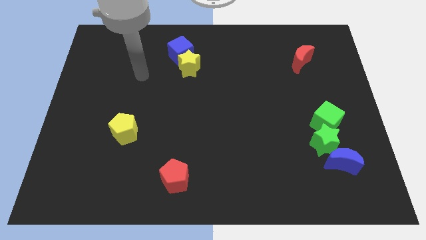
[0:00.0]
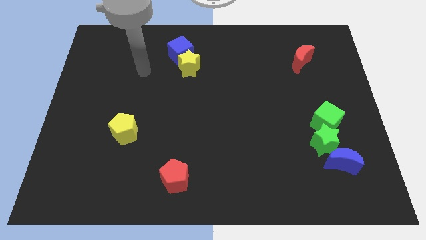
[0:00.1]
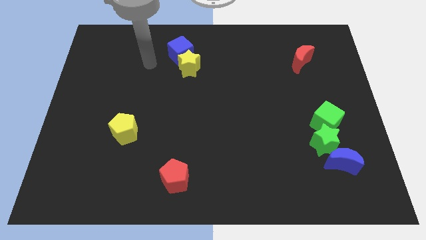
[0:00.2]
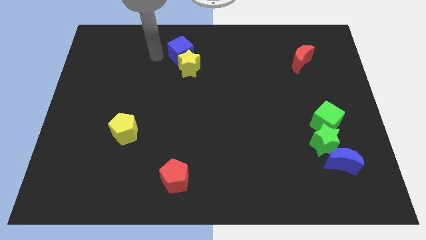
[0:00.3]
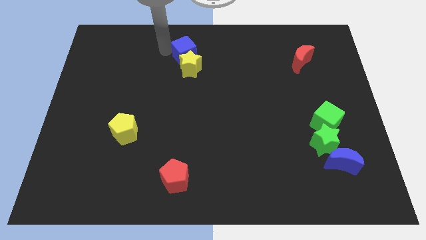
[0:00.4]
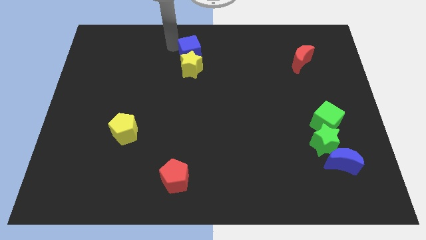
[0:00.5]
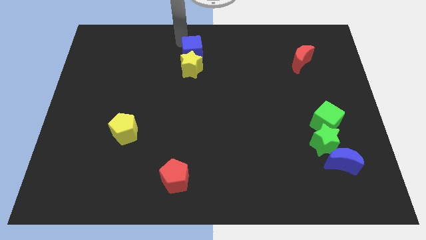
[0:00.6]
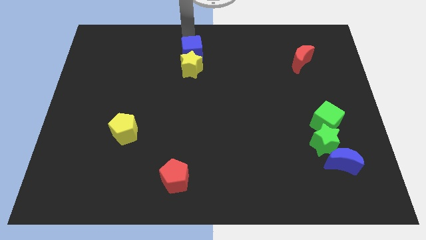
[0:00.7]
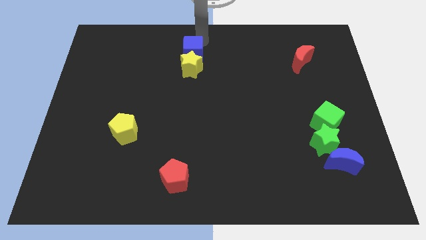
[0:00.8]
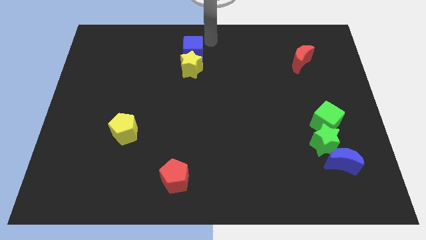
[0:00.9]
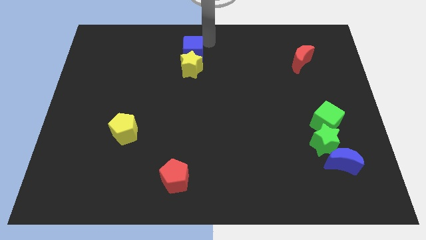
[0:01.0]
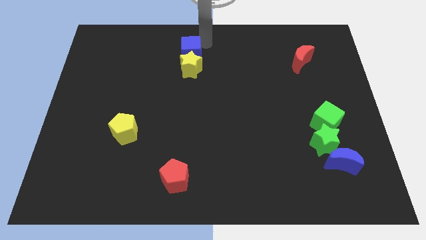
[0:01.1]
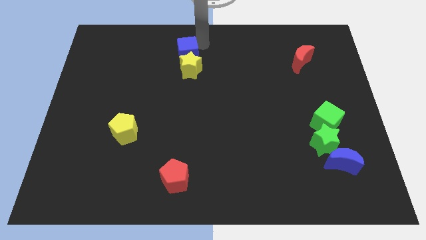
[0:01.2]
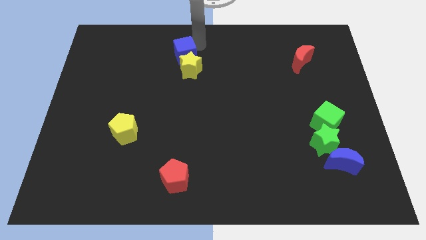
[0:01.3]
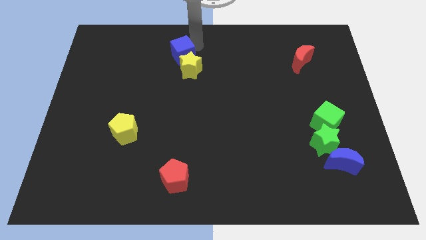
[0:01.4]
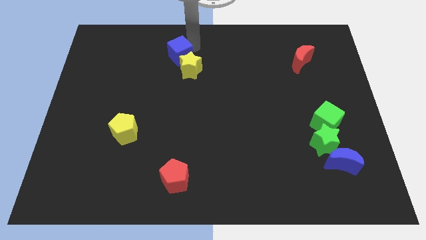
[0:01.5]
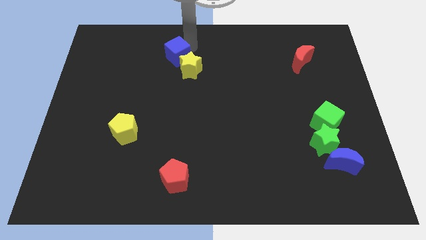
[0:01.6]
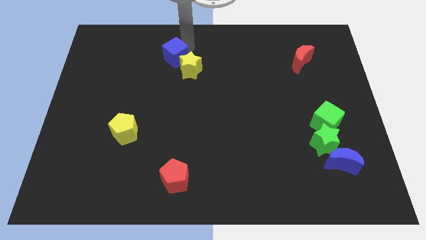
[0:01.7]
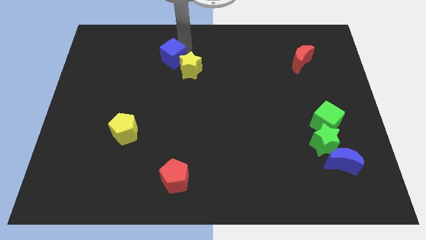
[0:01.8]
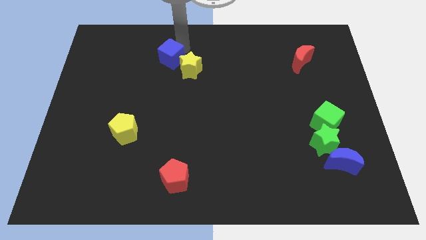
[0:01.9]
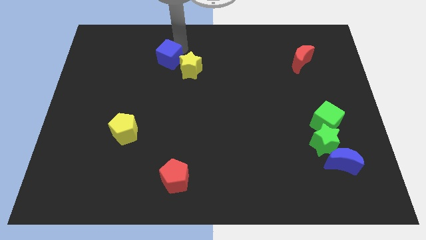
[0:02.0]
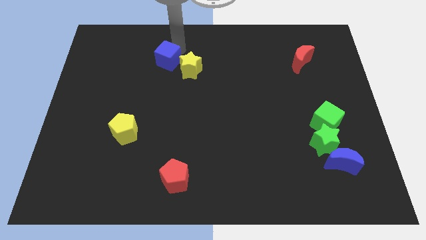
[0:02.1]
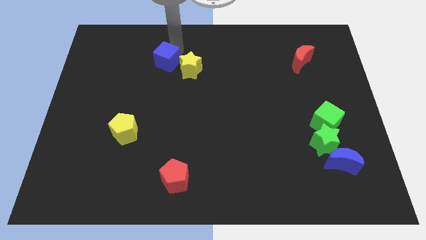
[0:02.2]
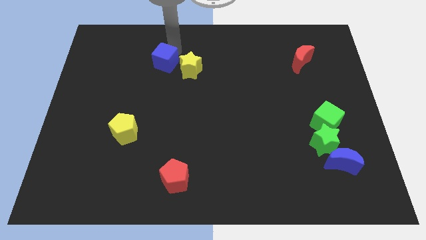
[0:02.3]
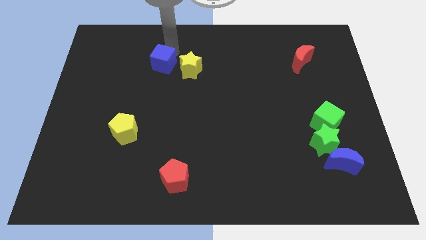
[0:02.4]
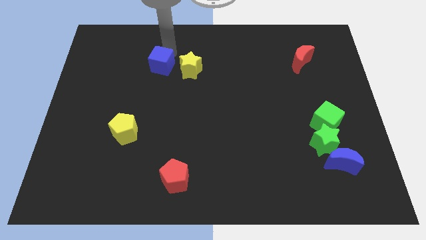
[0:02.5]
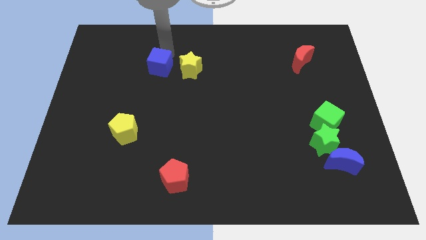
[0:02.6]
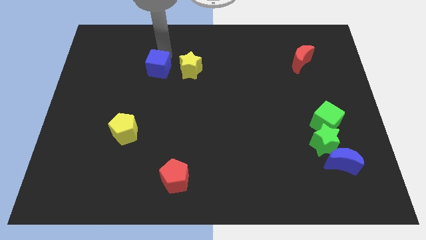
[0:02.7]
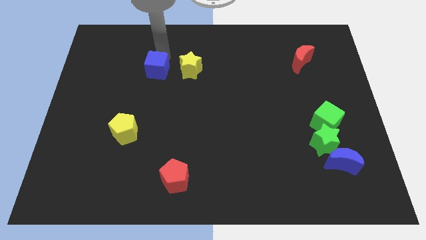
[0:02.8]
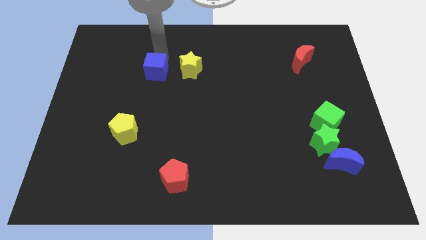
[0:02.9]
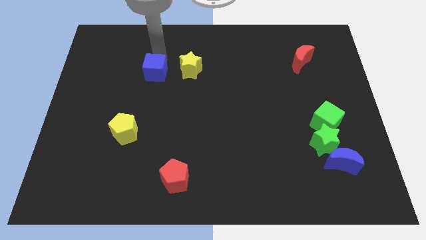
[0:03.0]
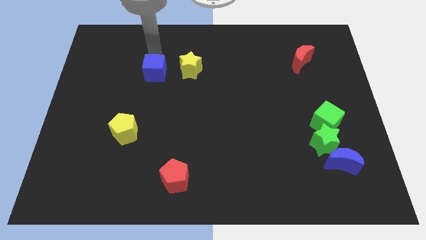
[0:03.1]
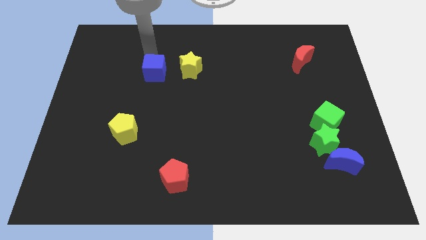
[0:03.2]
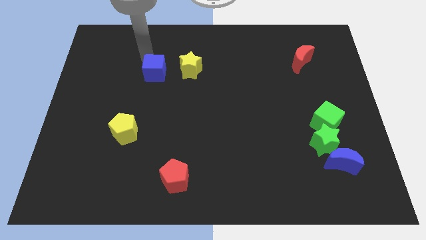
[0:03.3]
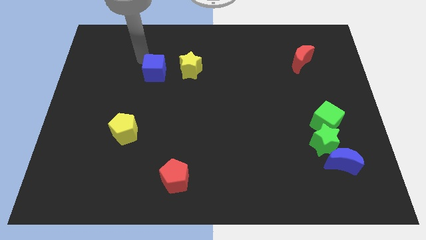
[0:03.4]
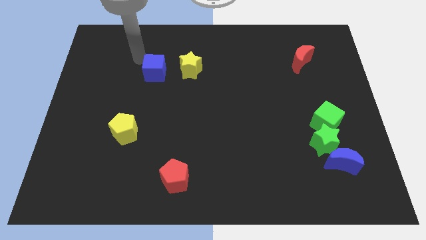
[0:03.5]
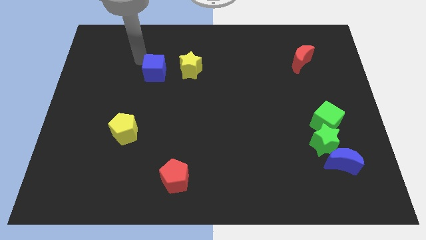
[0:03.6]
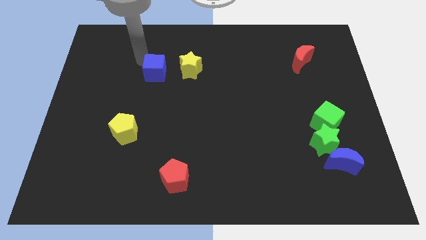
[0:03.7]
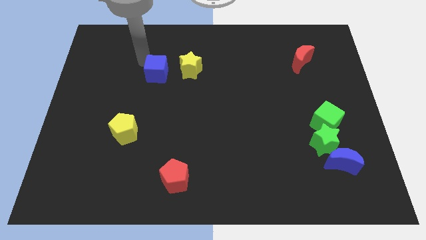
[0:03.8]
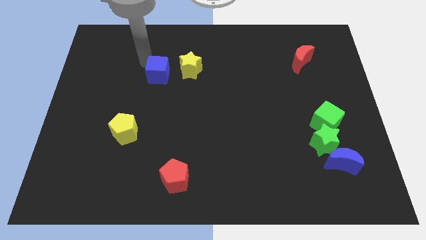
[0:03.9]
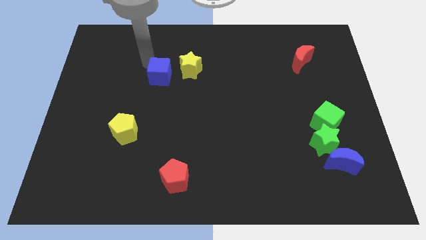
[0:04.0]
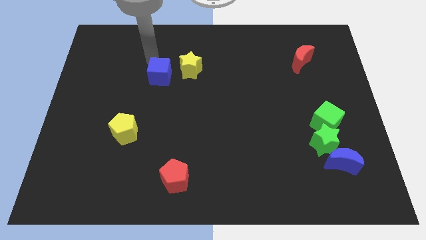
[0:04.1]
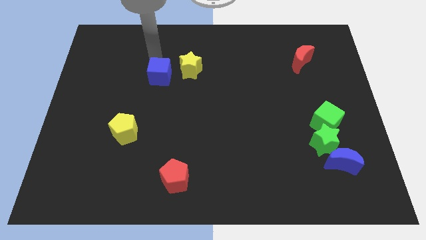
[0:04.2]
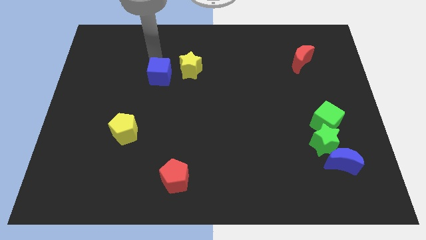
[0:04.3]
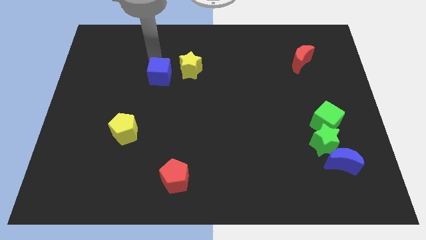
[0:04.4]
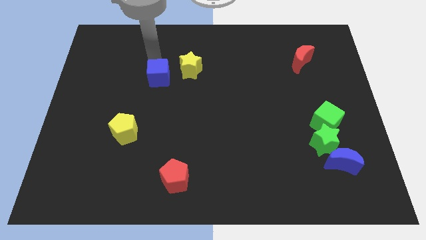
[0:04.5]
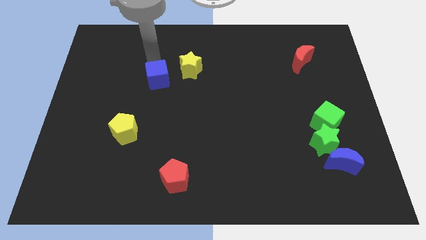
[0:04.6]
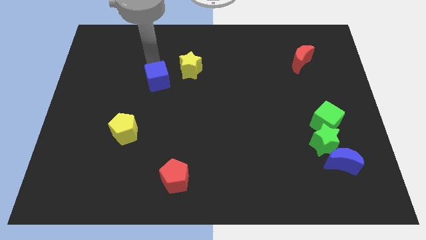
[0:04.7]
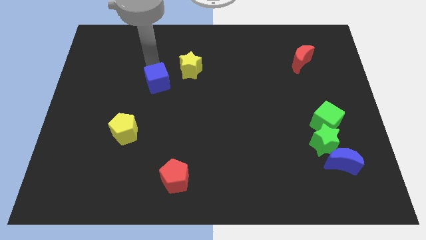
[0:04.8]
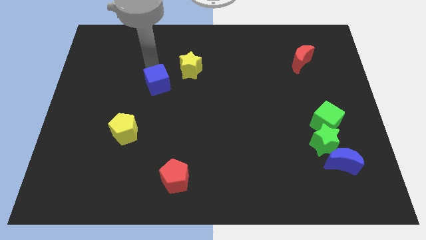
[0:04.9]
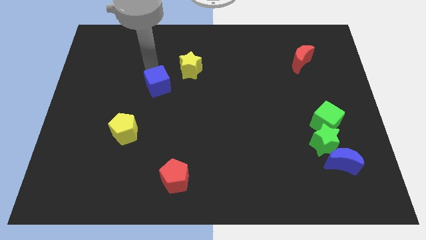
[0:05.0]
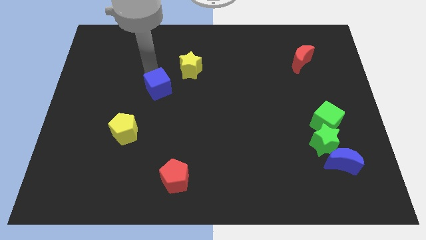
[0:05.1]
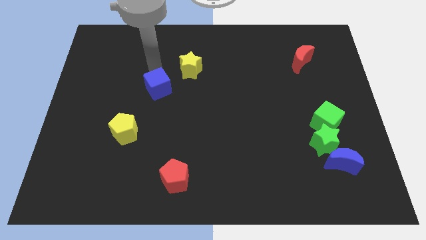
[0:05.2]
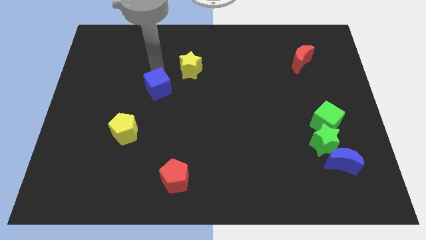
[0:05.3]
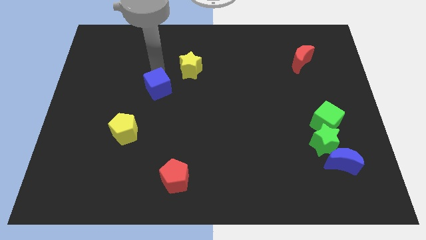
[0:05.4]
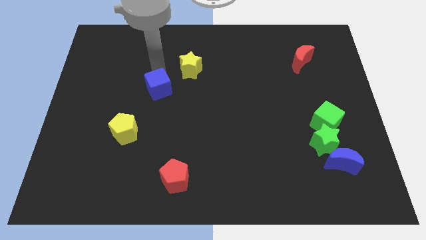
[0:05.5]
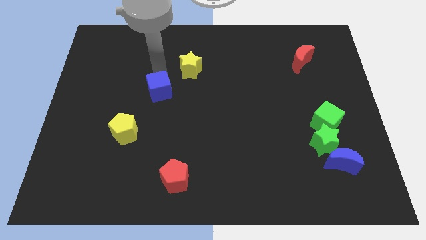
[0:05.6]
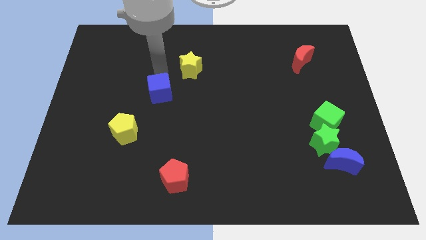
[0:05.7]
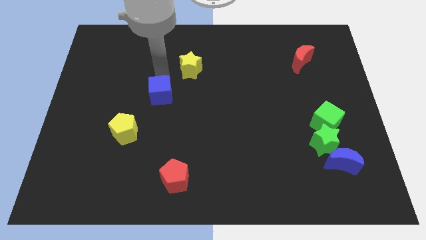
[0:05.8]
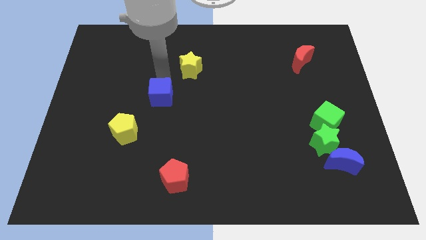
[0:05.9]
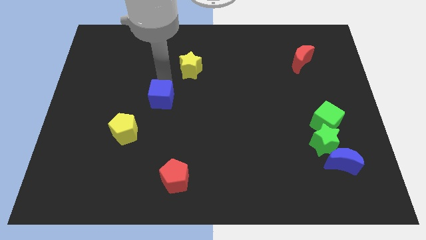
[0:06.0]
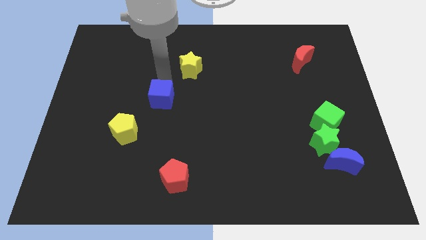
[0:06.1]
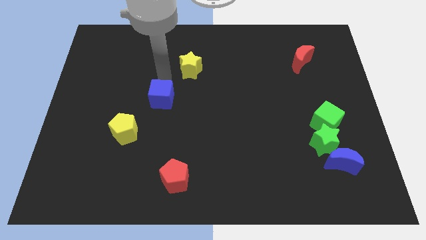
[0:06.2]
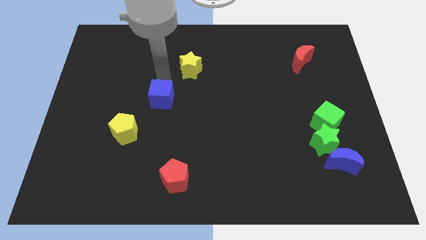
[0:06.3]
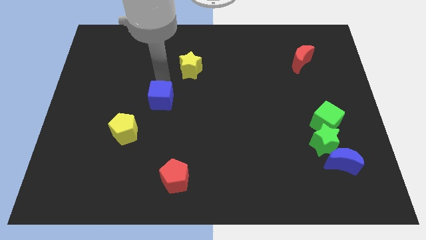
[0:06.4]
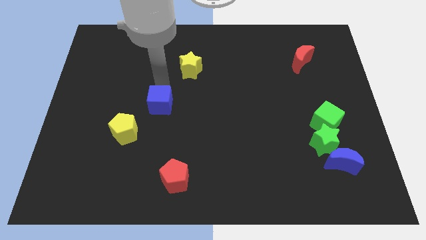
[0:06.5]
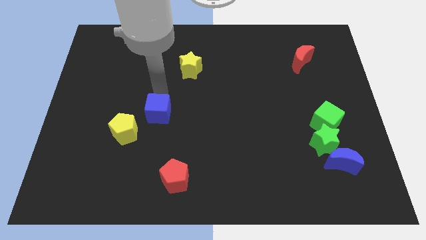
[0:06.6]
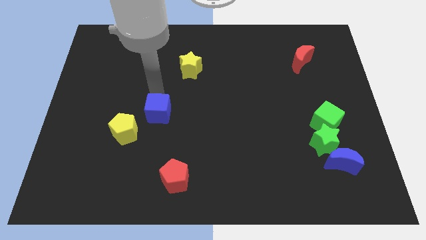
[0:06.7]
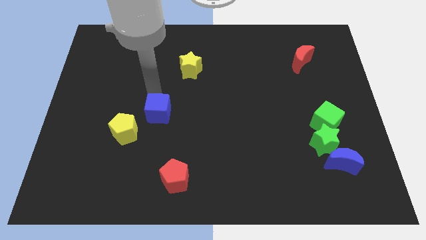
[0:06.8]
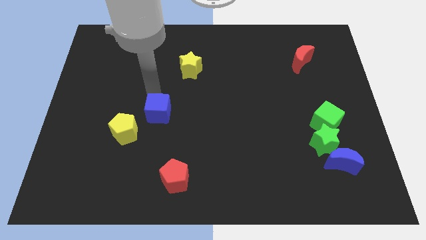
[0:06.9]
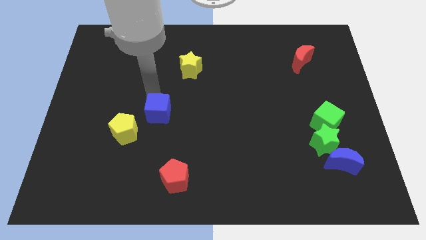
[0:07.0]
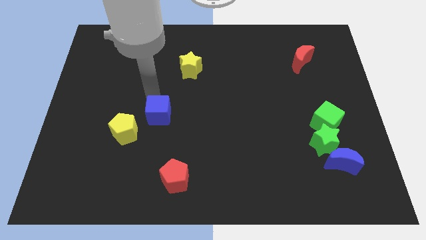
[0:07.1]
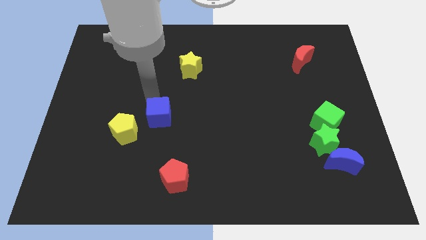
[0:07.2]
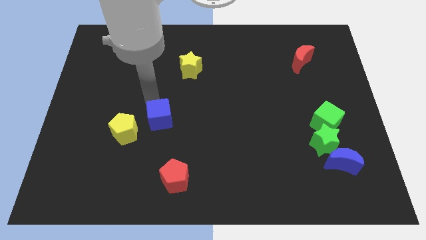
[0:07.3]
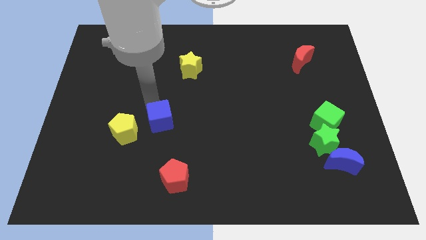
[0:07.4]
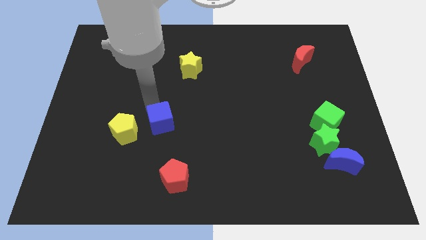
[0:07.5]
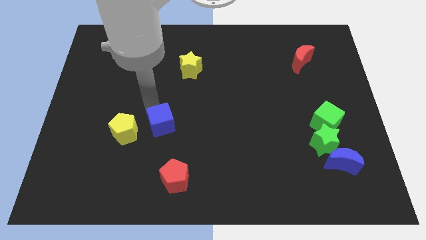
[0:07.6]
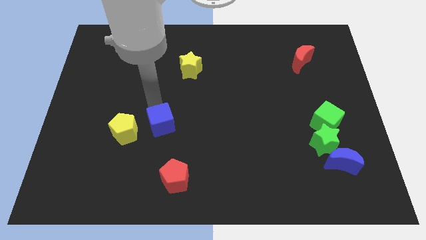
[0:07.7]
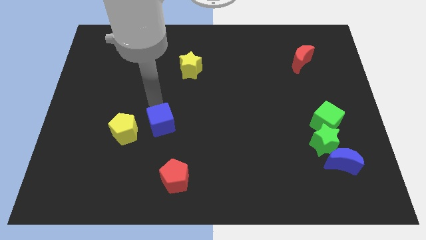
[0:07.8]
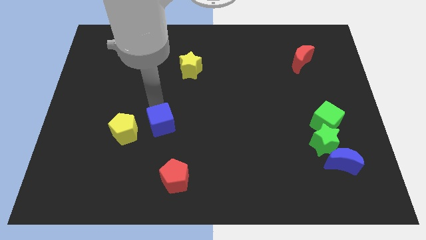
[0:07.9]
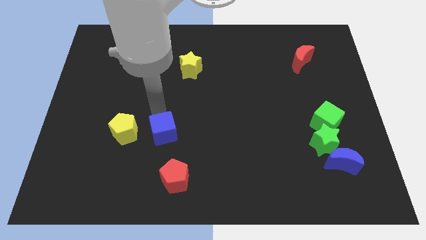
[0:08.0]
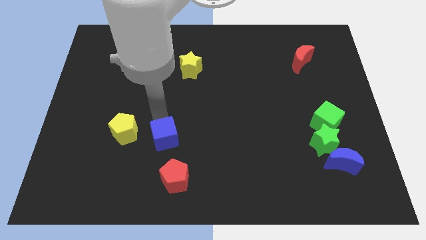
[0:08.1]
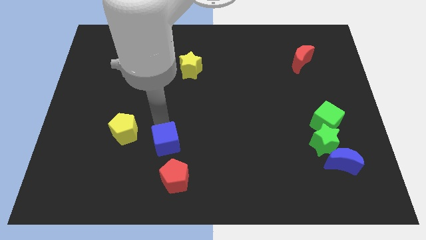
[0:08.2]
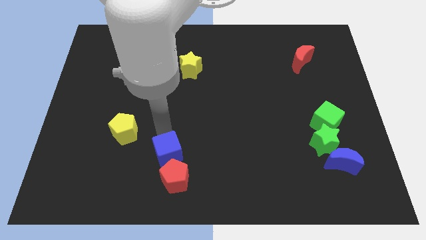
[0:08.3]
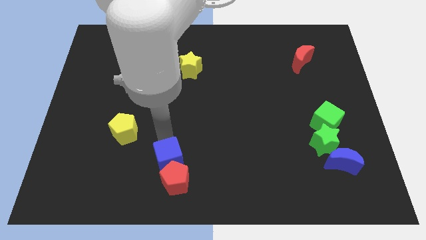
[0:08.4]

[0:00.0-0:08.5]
move the blue cube close to the red pentagon
